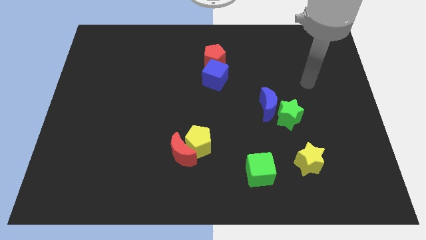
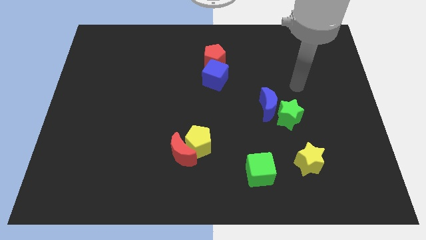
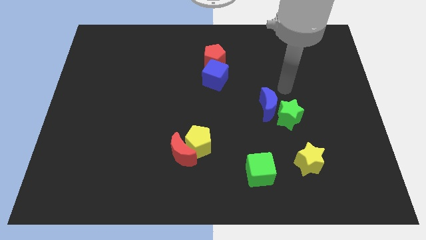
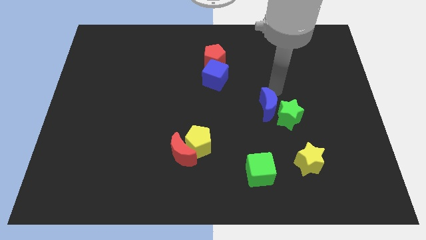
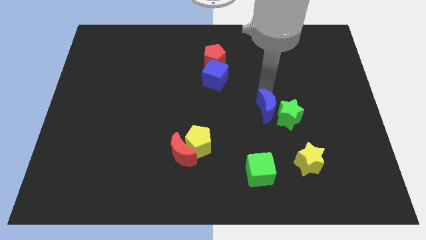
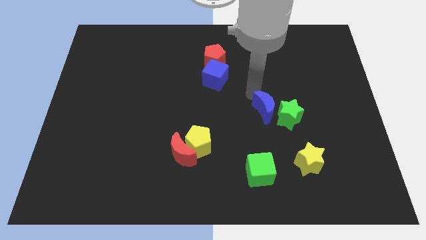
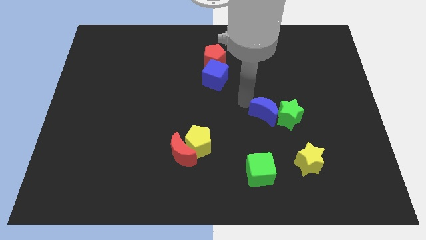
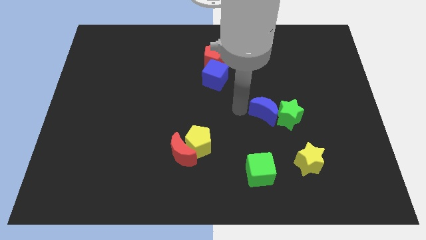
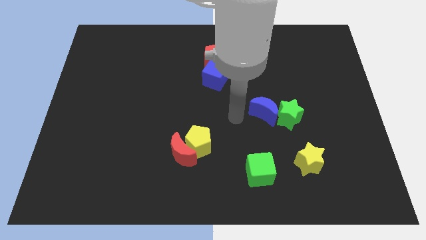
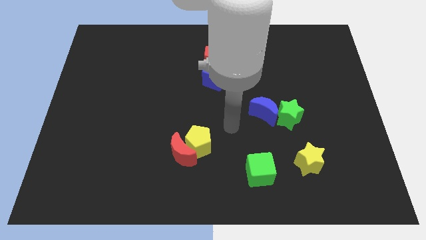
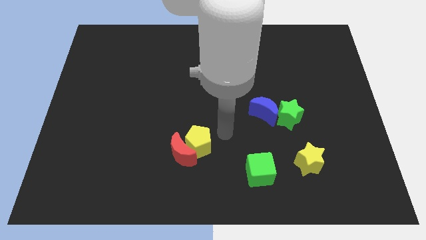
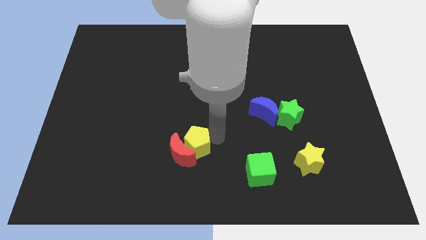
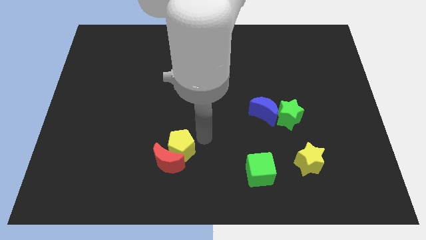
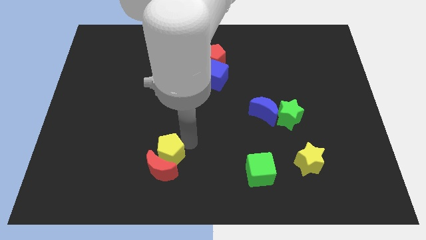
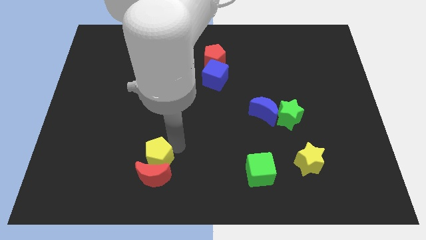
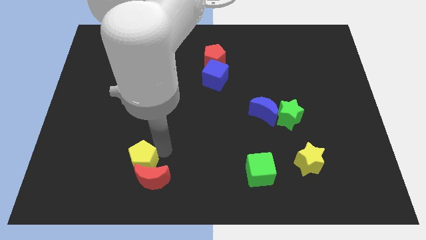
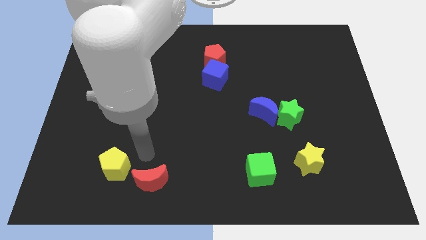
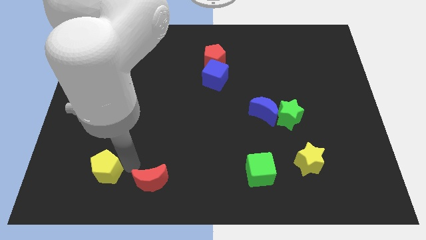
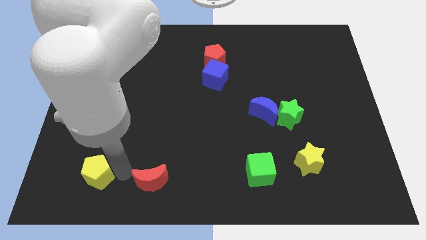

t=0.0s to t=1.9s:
separate the red moon from the yellow pentagon

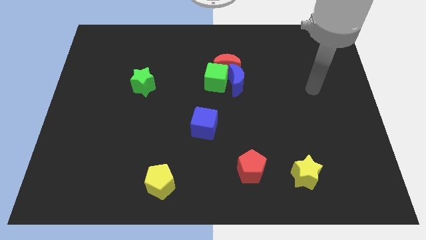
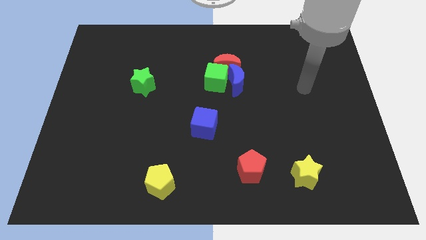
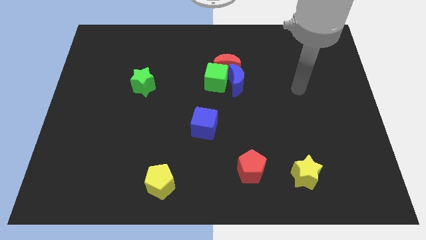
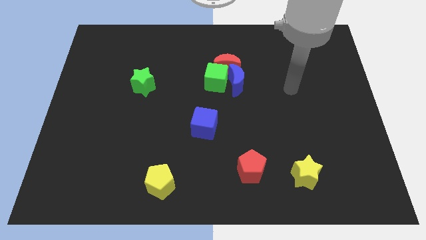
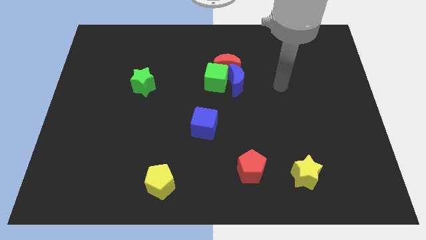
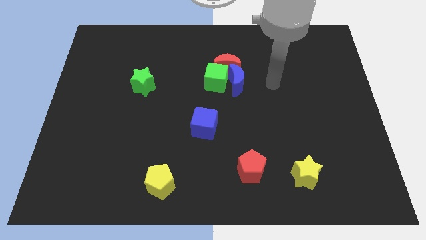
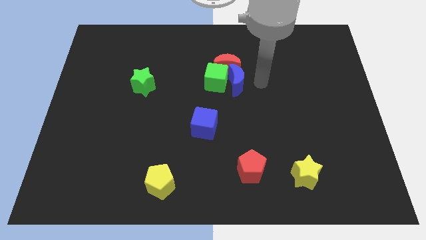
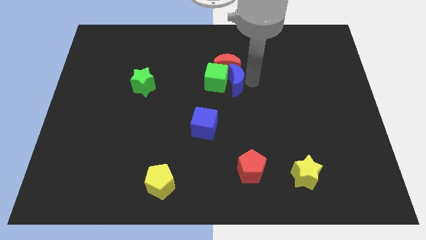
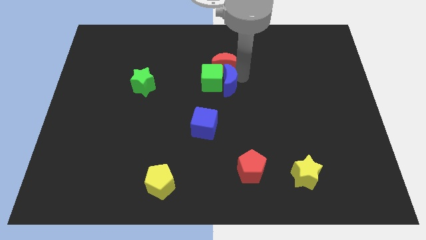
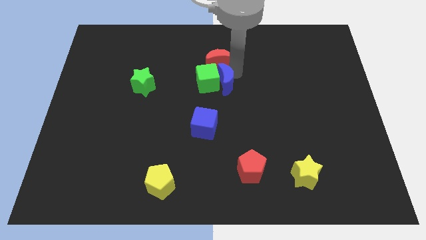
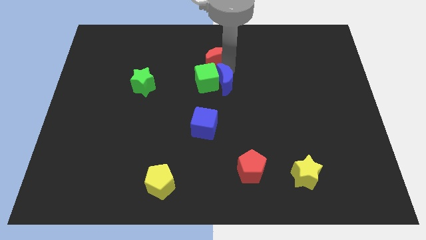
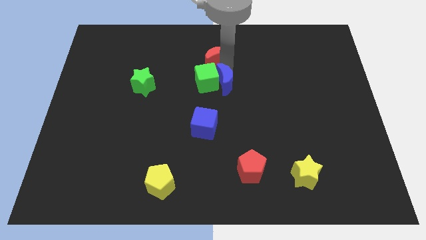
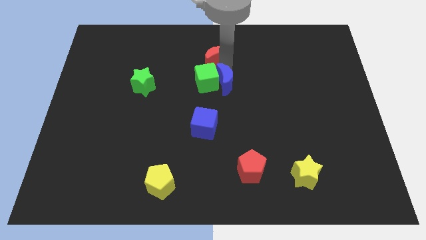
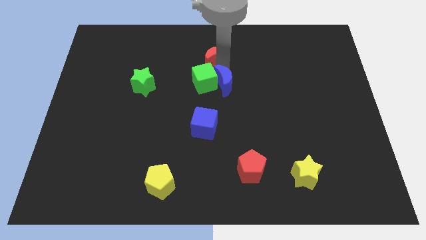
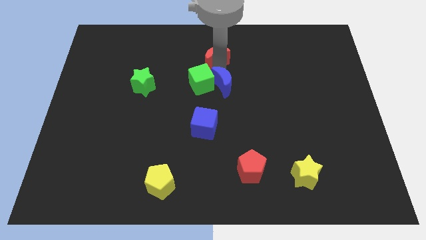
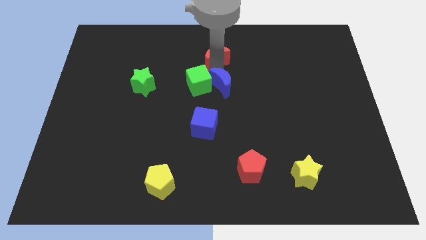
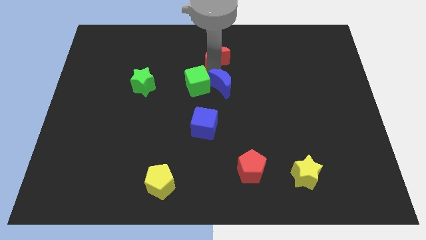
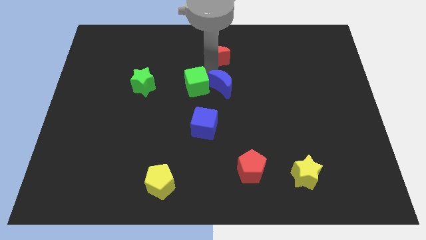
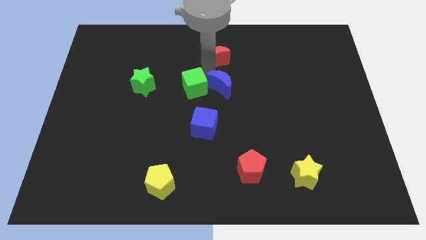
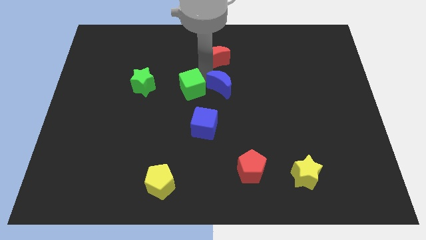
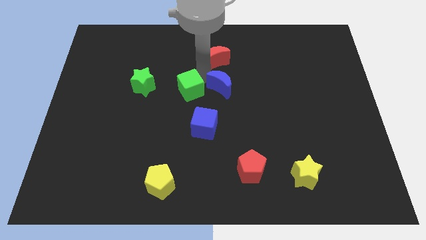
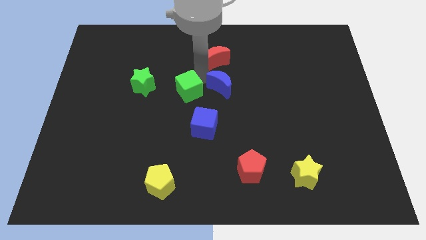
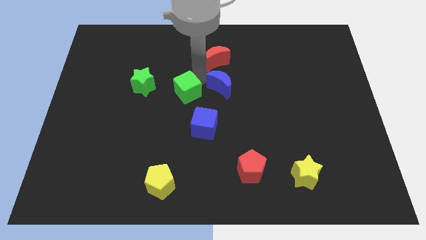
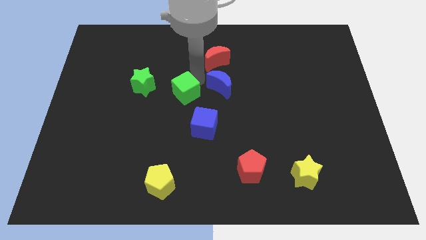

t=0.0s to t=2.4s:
separate the green cube from the blue moon and red moon

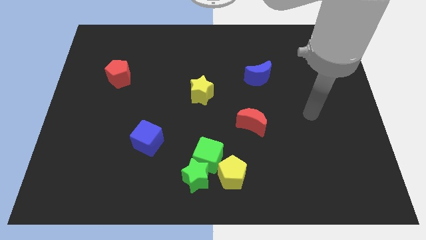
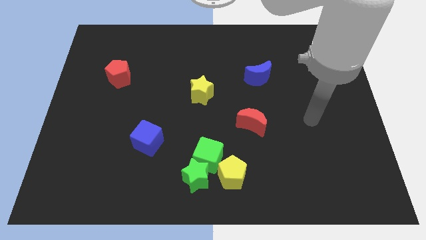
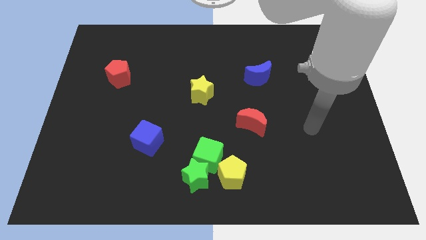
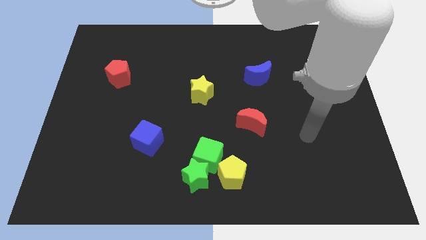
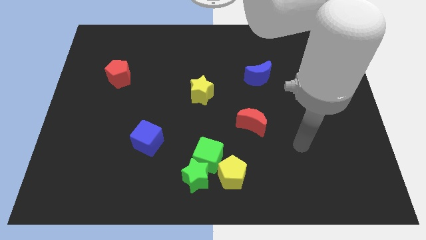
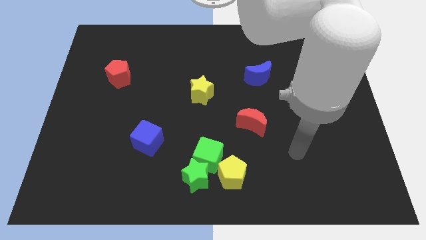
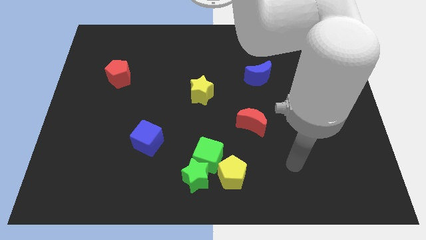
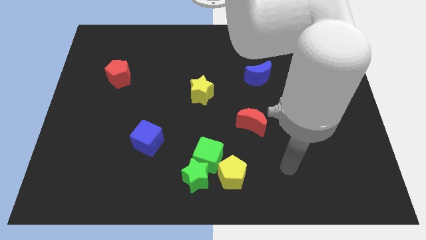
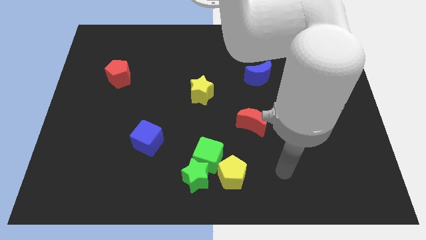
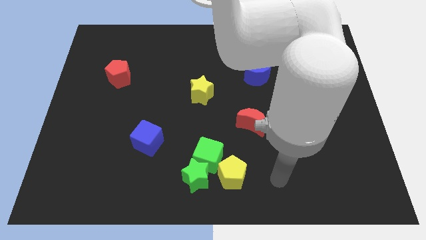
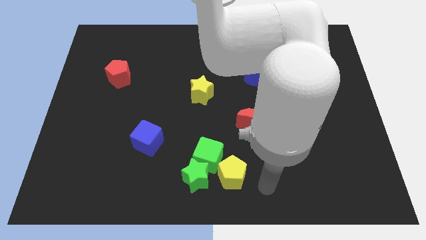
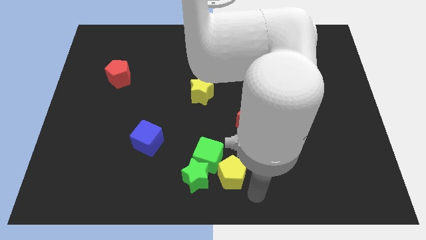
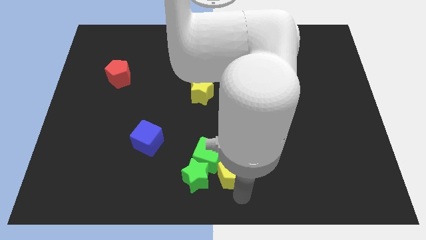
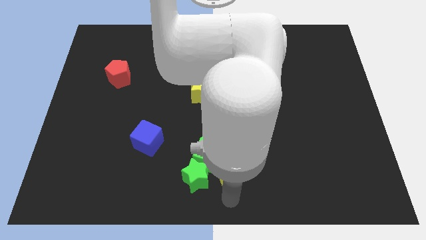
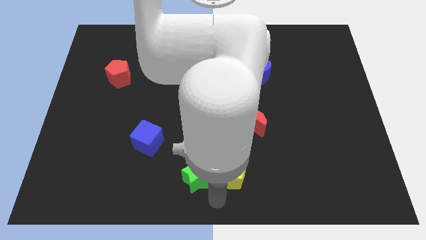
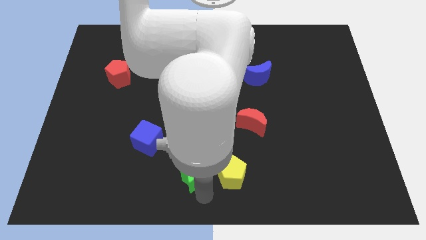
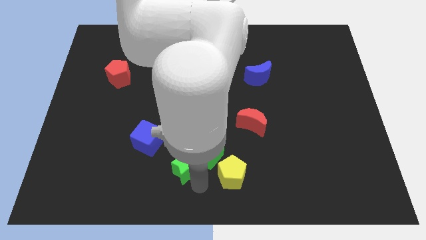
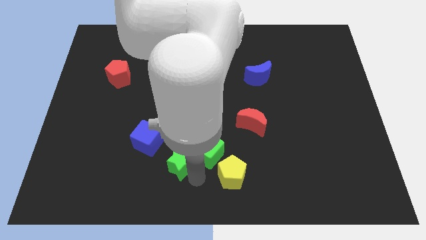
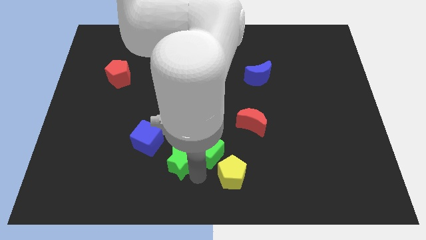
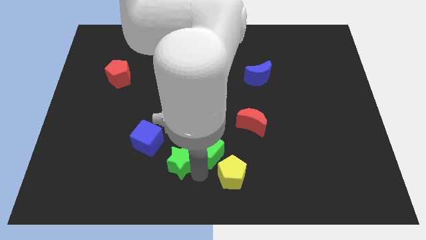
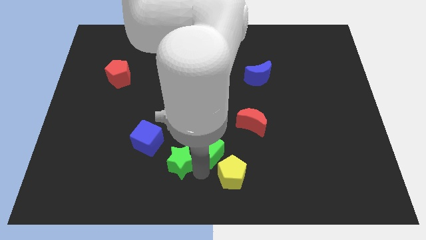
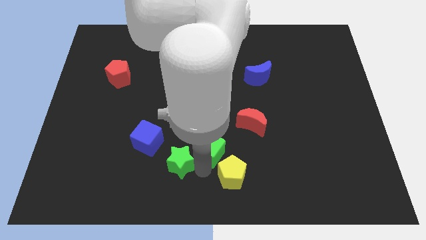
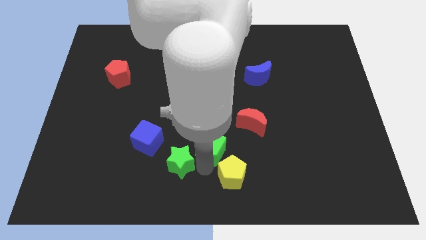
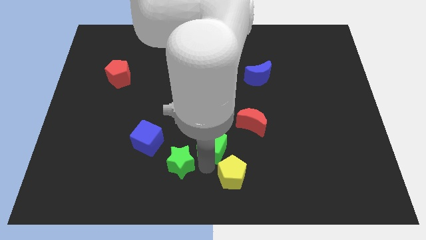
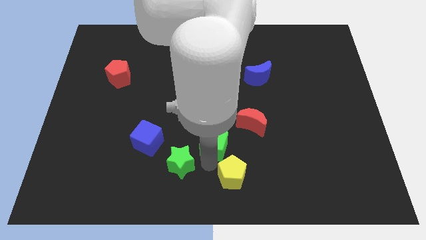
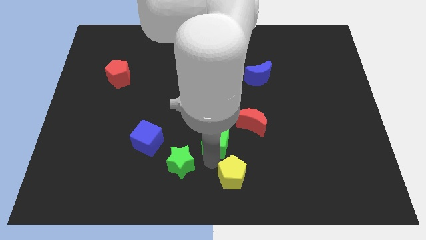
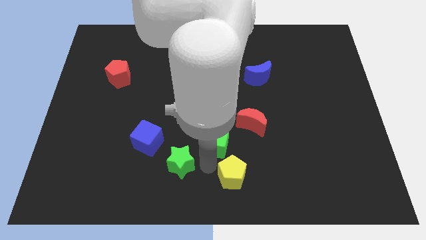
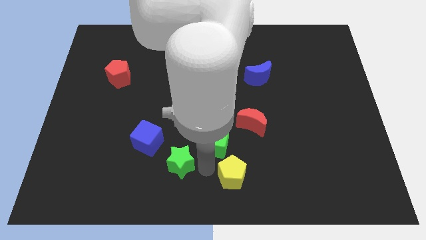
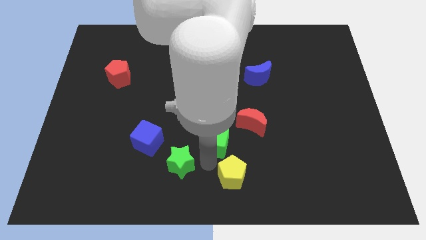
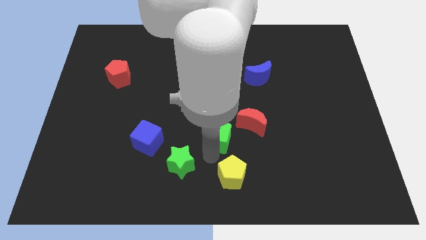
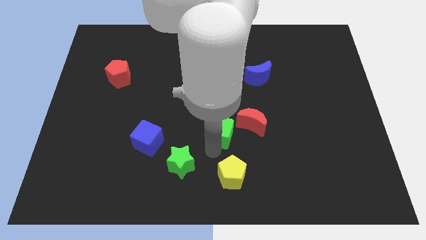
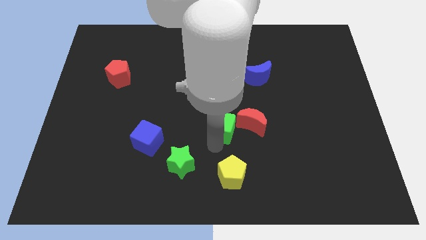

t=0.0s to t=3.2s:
separate the green cube from the green star and yellow pentagon

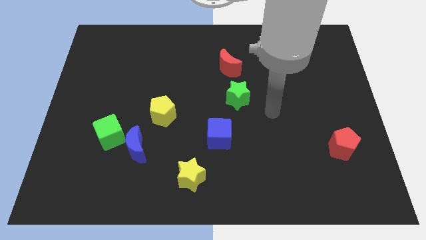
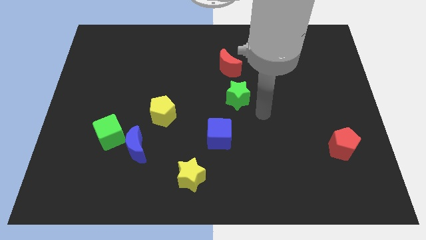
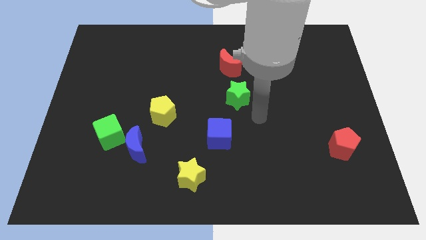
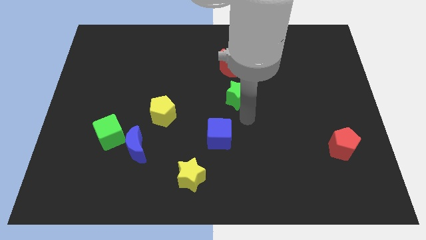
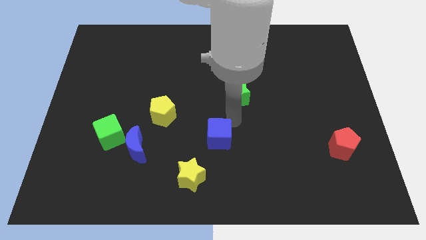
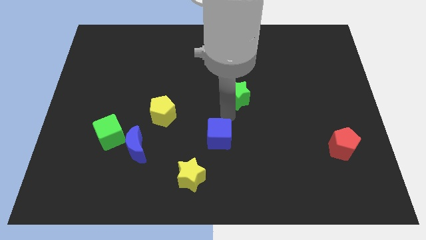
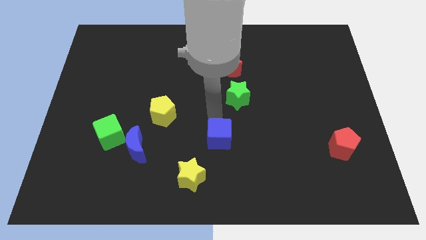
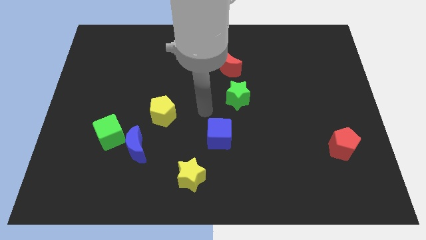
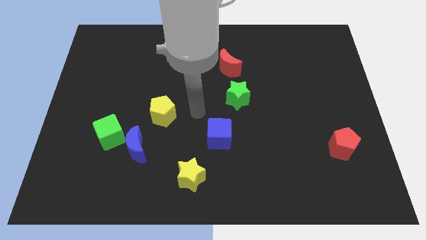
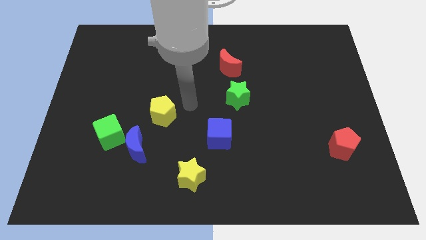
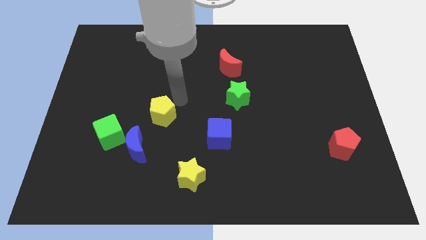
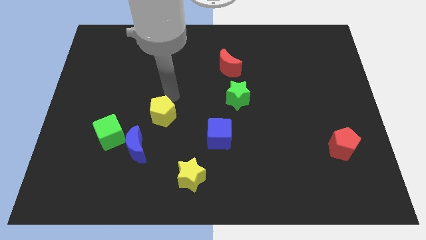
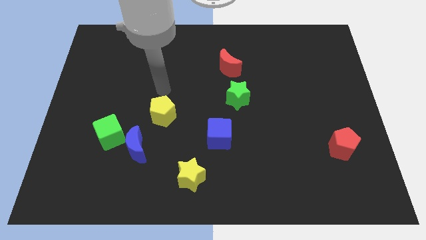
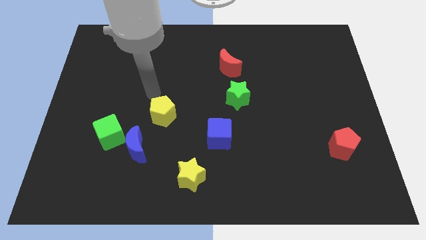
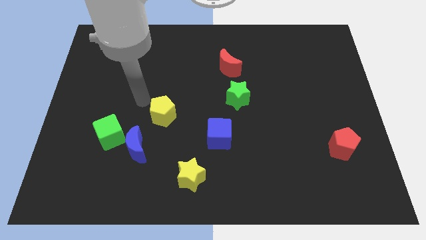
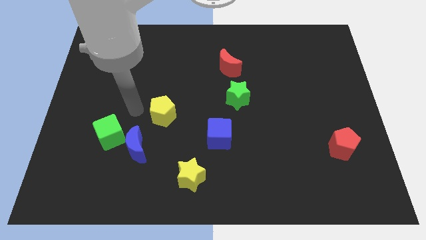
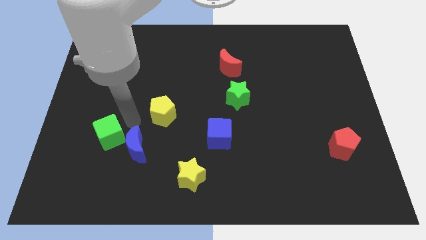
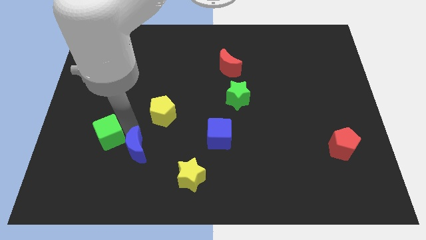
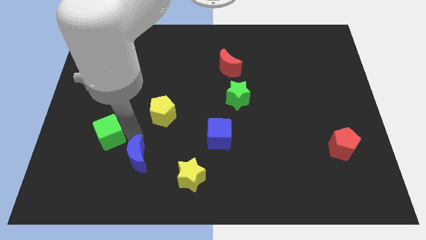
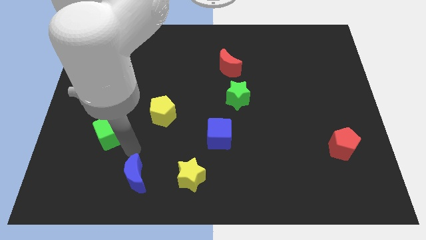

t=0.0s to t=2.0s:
separate the green cube from the blue moon
